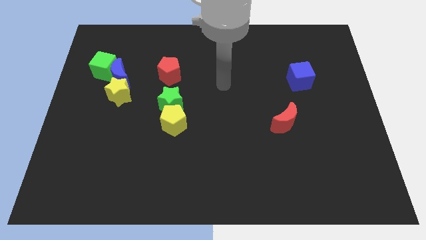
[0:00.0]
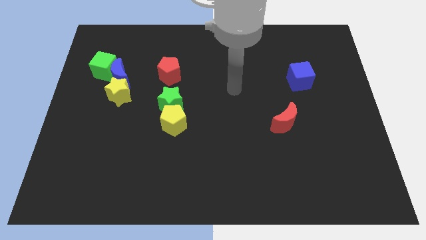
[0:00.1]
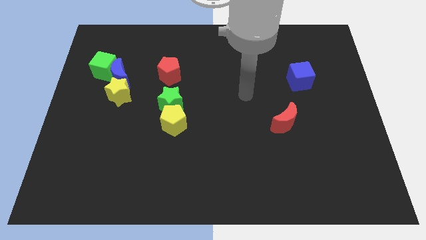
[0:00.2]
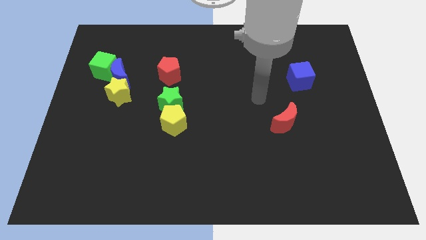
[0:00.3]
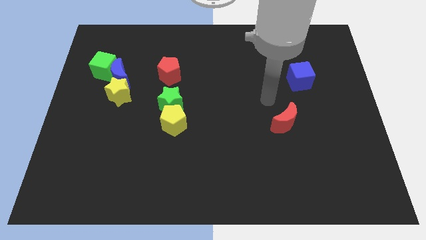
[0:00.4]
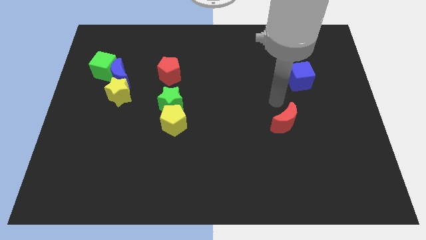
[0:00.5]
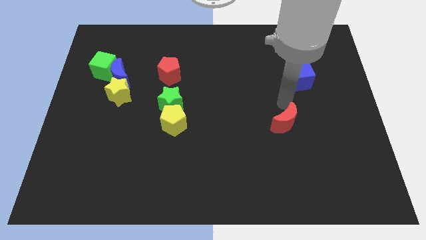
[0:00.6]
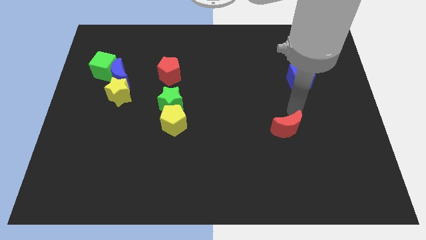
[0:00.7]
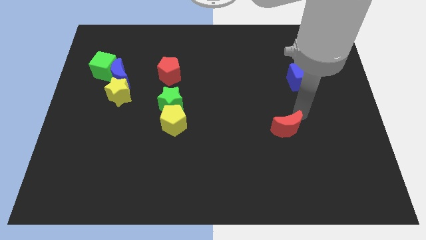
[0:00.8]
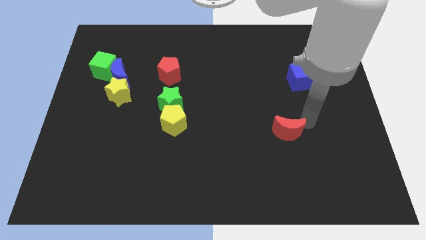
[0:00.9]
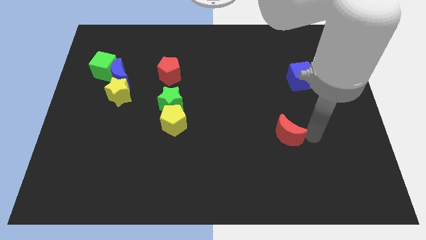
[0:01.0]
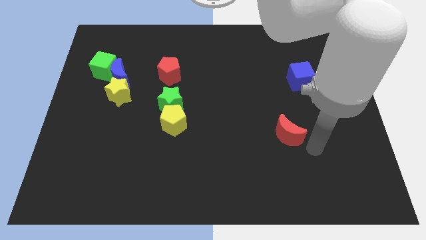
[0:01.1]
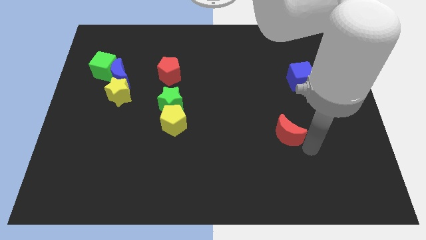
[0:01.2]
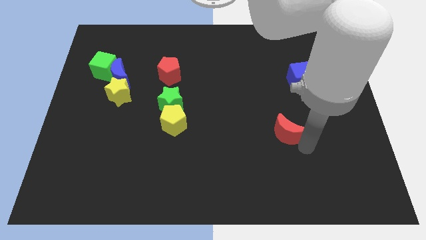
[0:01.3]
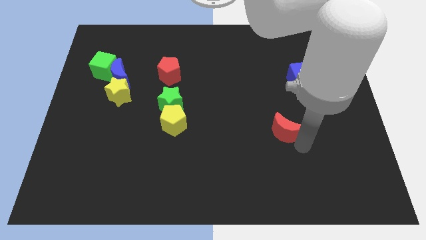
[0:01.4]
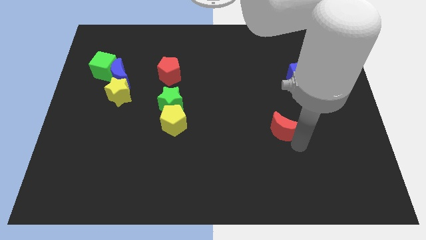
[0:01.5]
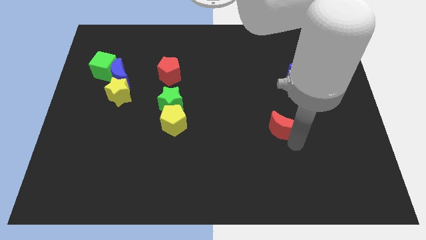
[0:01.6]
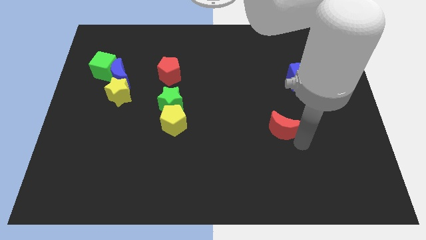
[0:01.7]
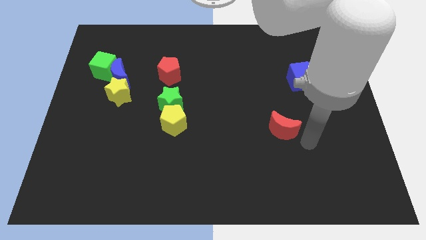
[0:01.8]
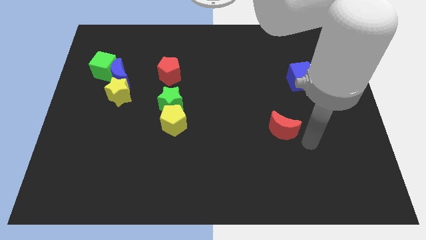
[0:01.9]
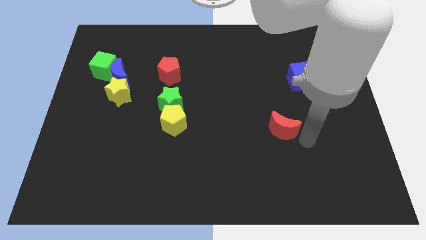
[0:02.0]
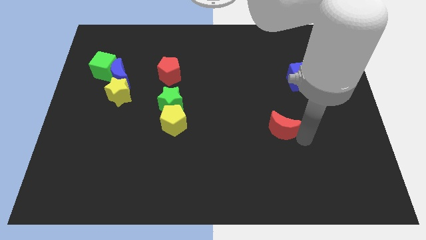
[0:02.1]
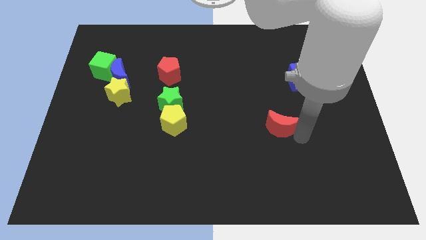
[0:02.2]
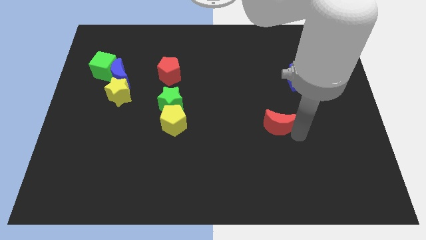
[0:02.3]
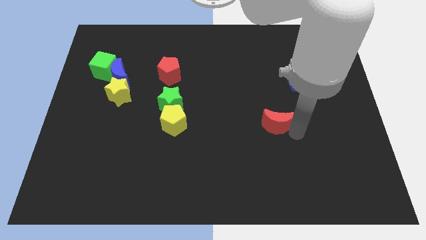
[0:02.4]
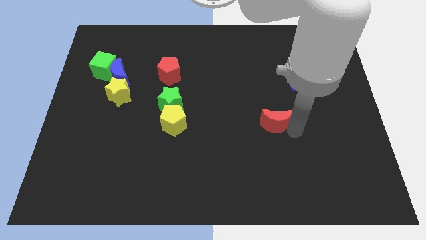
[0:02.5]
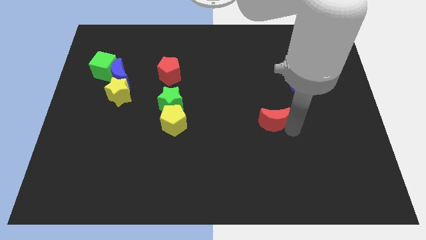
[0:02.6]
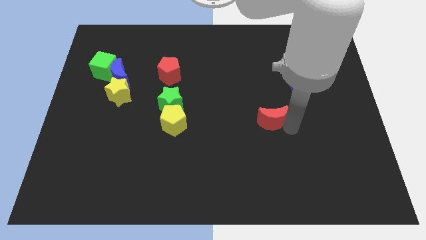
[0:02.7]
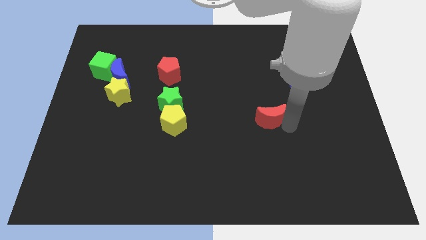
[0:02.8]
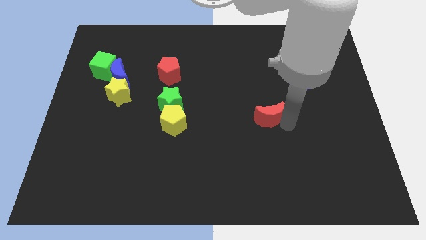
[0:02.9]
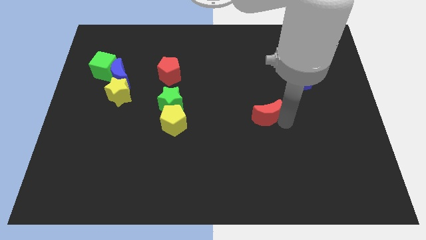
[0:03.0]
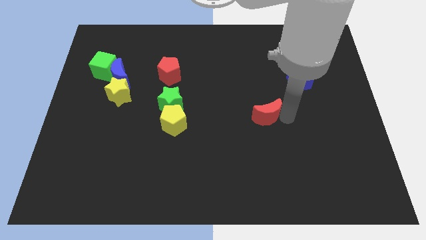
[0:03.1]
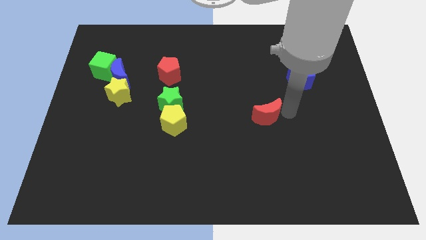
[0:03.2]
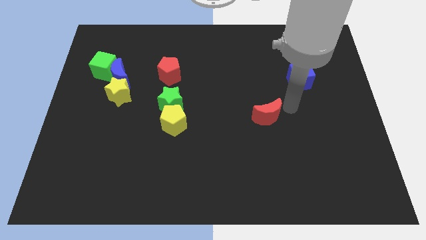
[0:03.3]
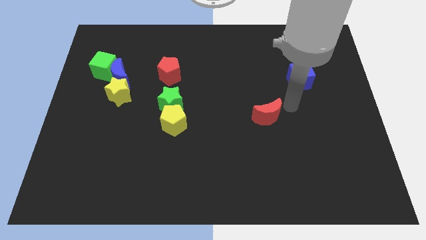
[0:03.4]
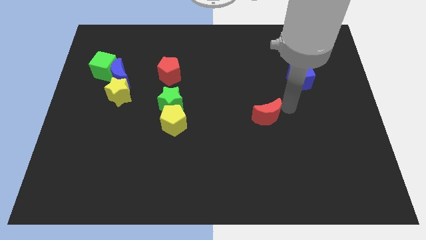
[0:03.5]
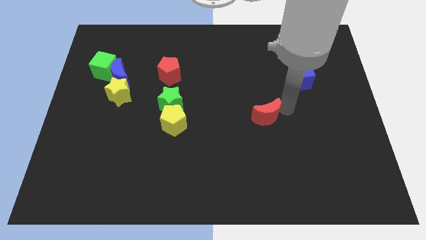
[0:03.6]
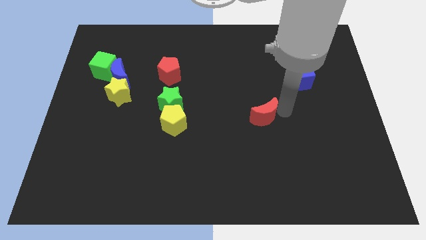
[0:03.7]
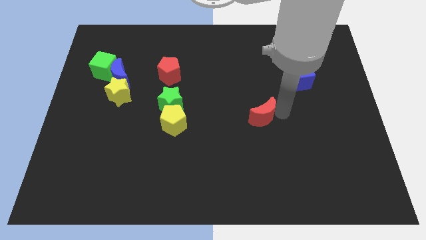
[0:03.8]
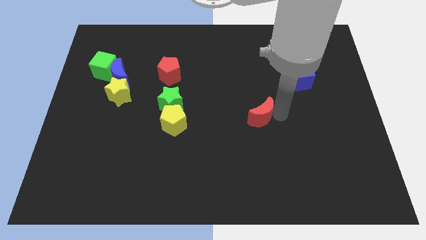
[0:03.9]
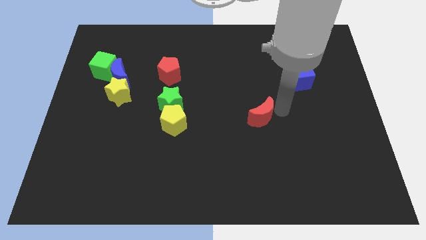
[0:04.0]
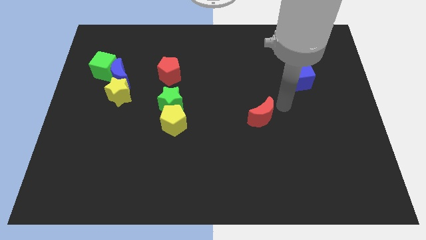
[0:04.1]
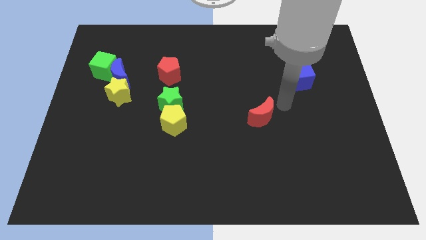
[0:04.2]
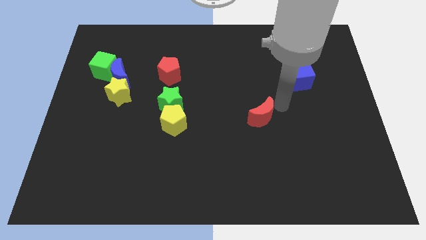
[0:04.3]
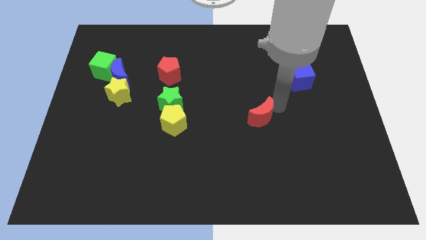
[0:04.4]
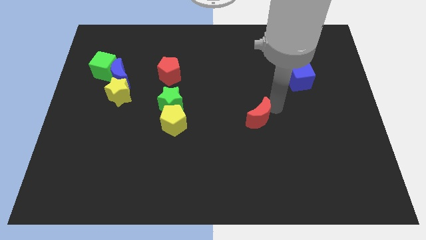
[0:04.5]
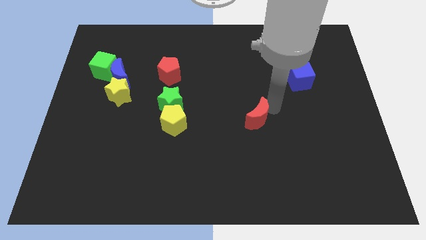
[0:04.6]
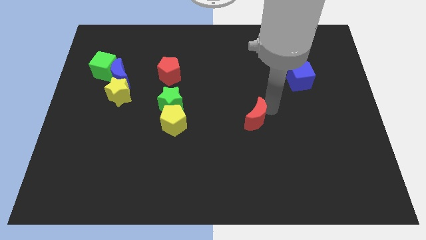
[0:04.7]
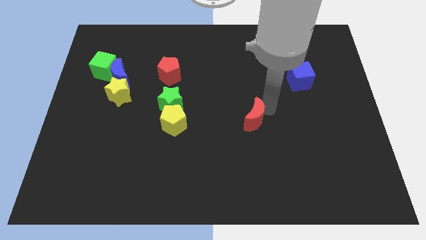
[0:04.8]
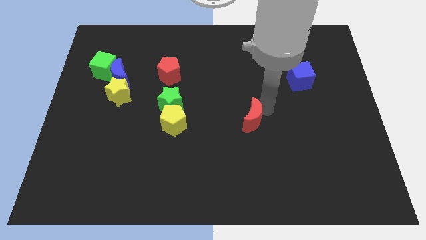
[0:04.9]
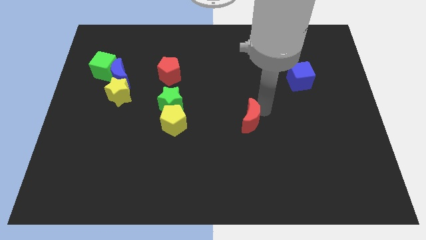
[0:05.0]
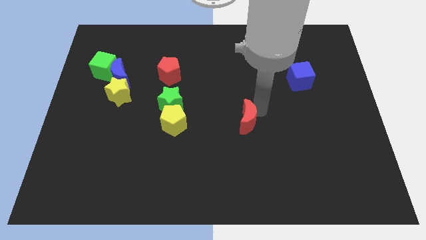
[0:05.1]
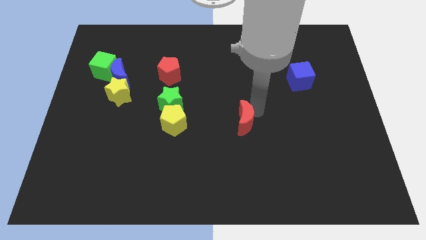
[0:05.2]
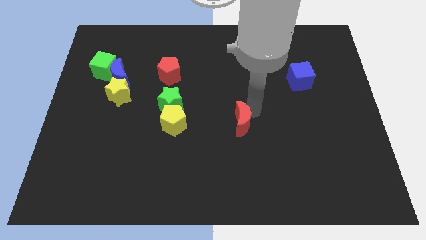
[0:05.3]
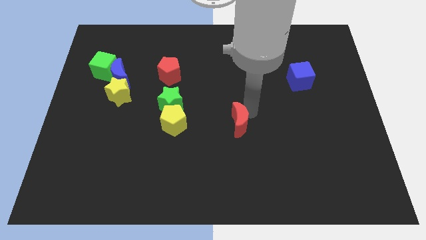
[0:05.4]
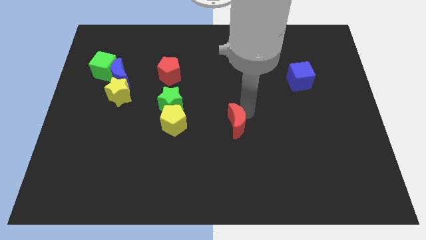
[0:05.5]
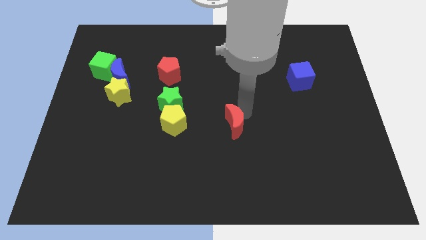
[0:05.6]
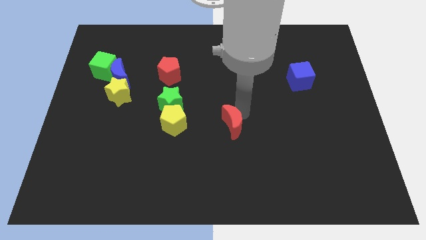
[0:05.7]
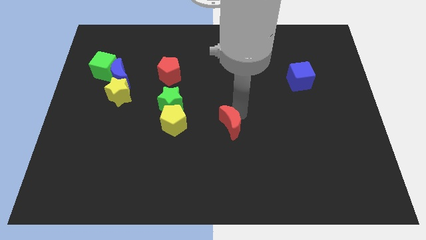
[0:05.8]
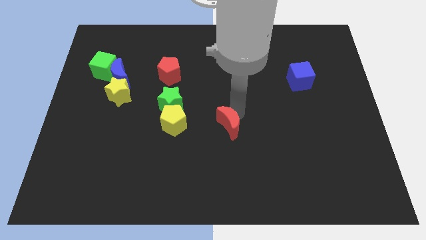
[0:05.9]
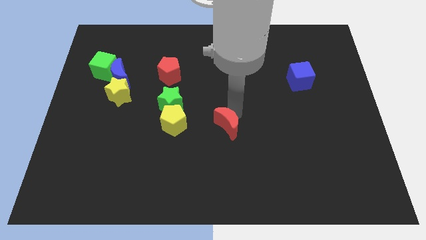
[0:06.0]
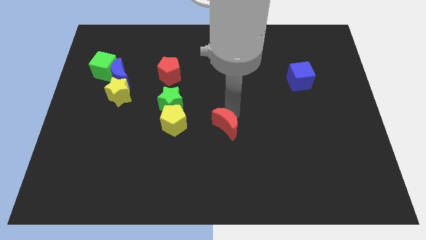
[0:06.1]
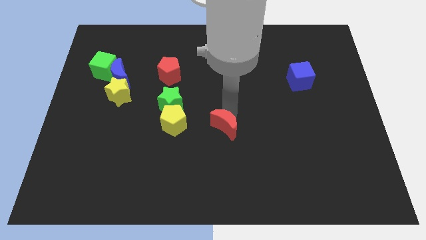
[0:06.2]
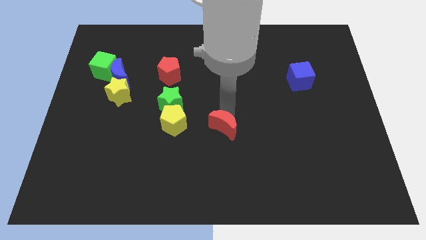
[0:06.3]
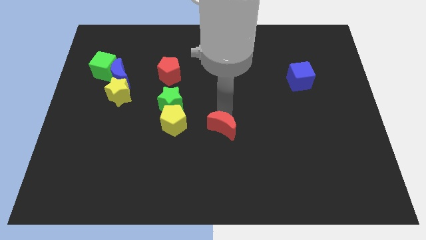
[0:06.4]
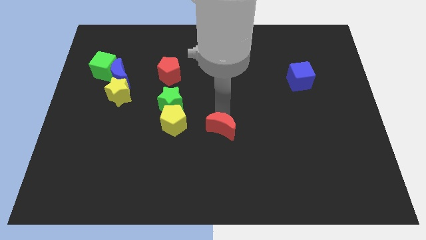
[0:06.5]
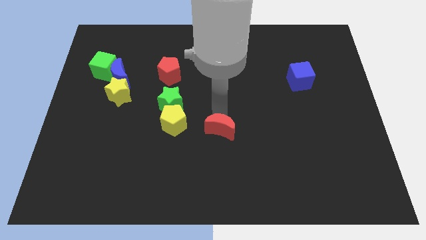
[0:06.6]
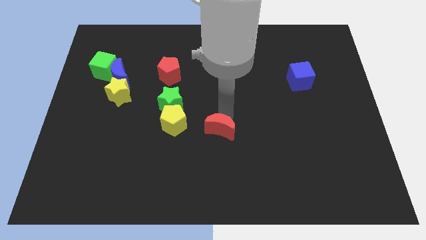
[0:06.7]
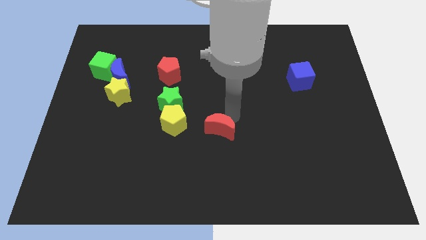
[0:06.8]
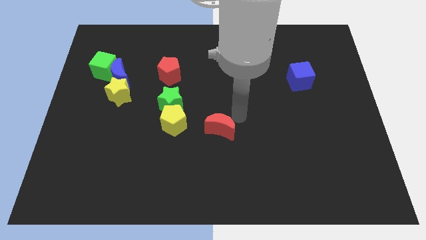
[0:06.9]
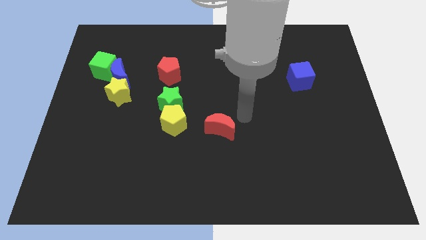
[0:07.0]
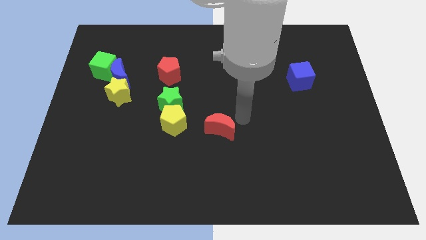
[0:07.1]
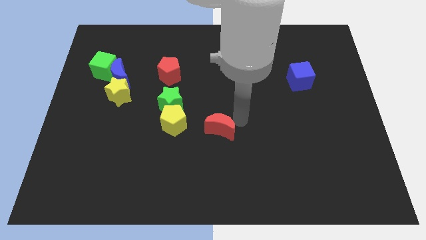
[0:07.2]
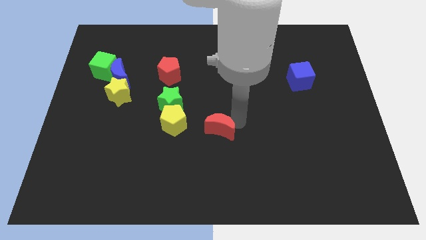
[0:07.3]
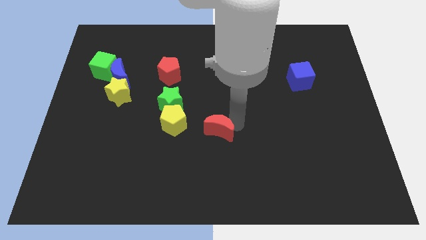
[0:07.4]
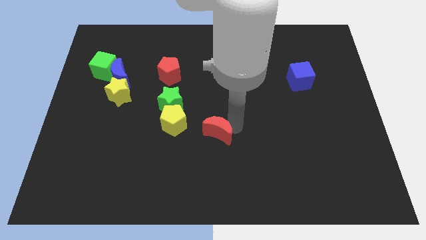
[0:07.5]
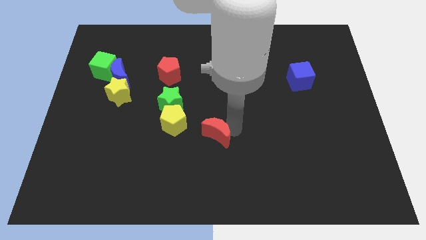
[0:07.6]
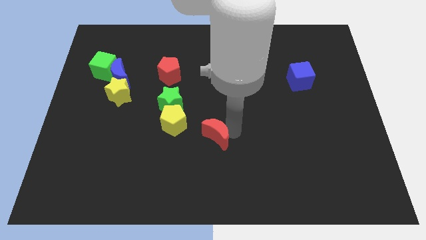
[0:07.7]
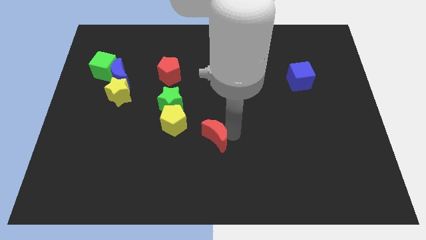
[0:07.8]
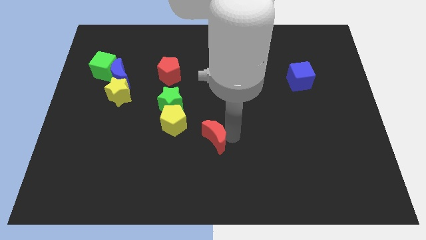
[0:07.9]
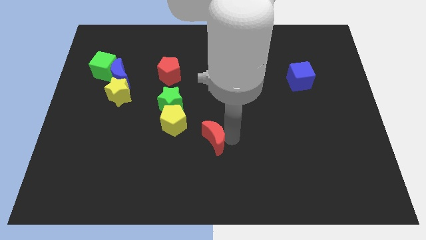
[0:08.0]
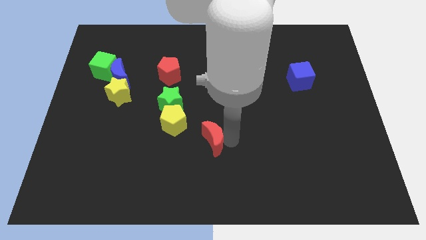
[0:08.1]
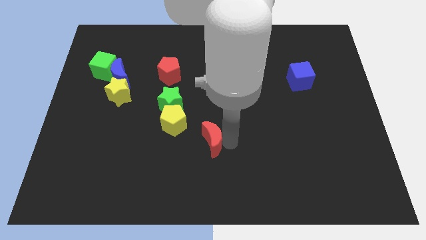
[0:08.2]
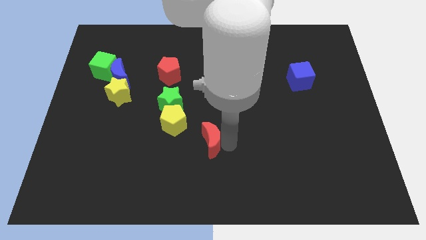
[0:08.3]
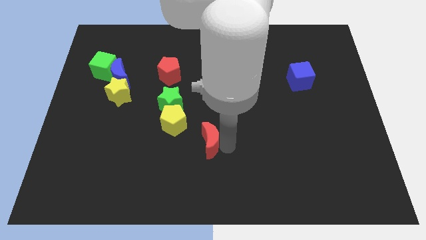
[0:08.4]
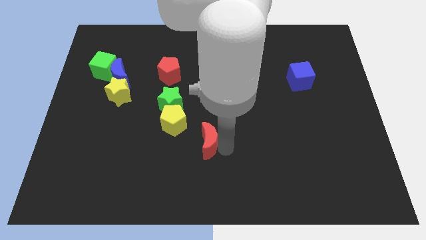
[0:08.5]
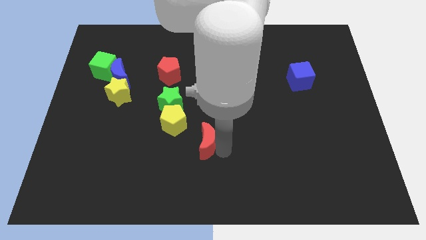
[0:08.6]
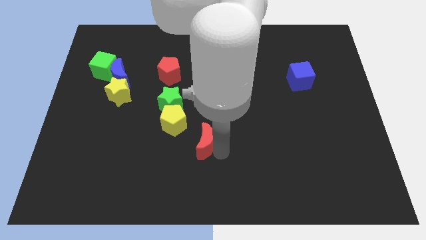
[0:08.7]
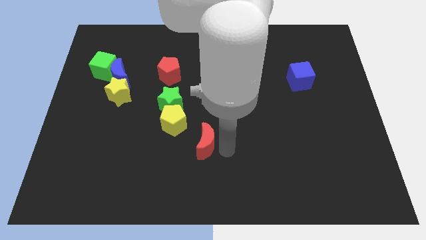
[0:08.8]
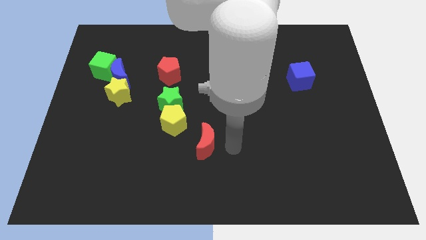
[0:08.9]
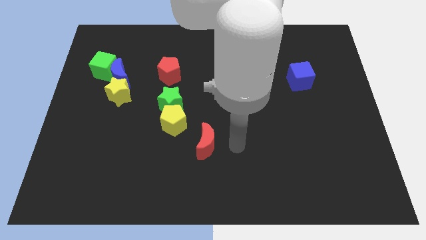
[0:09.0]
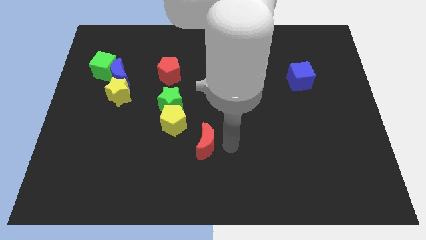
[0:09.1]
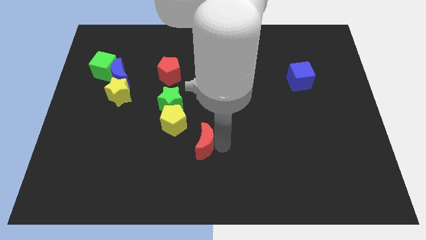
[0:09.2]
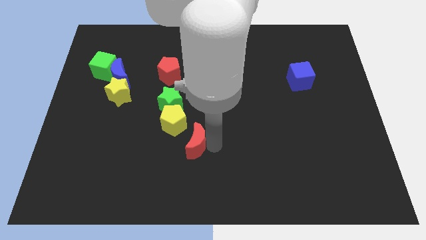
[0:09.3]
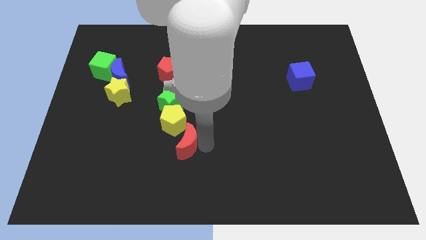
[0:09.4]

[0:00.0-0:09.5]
slide the red moon to the left
